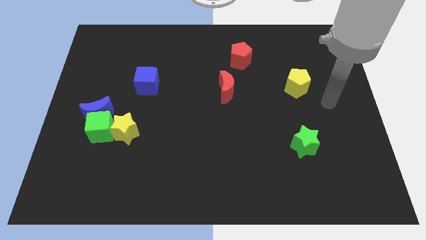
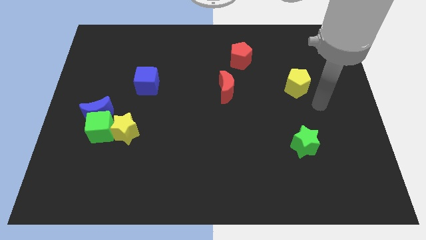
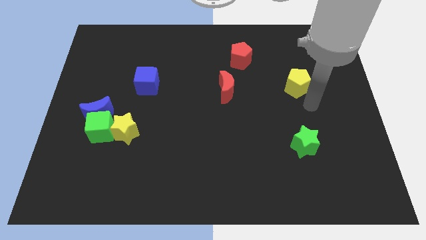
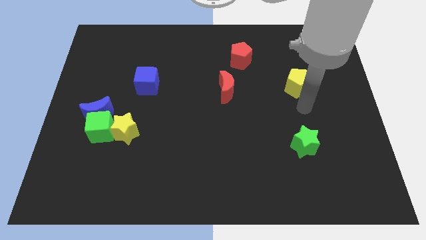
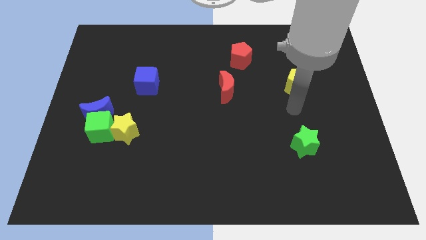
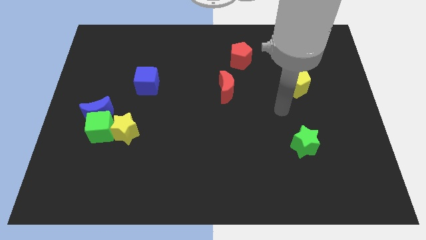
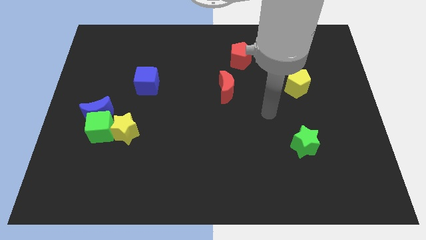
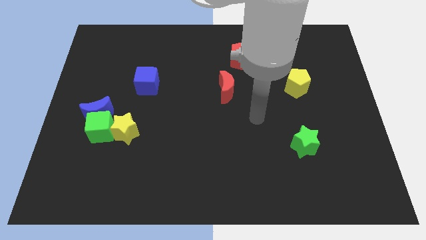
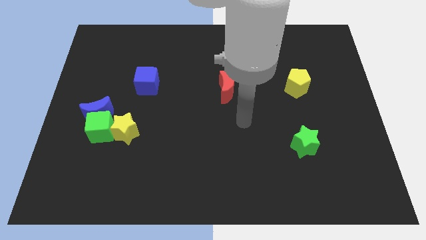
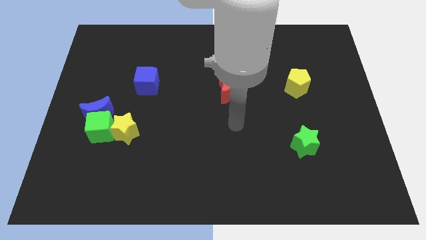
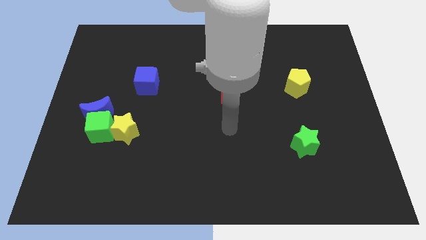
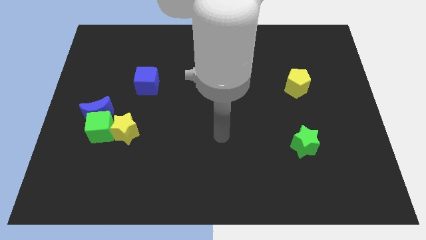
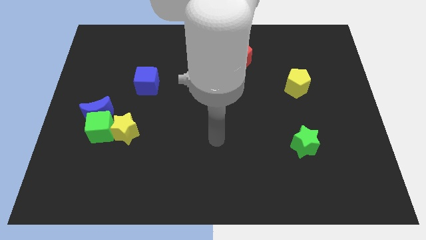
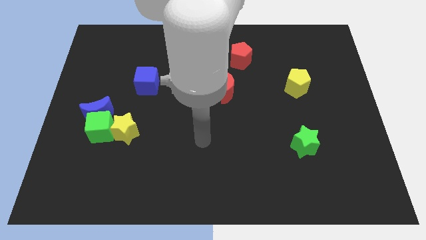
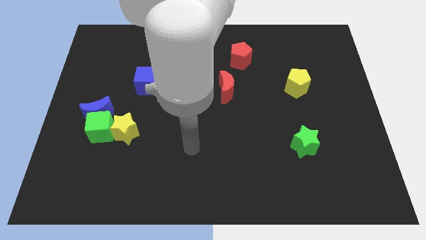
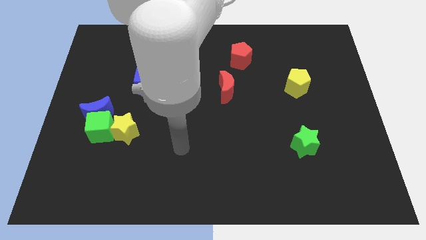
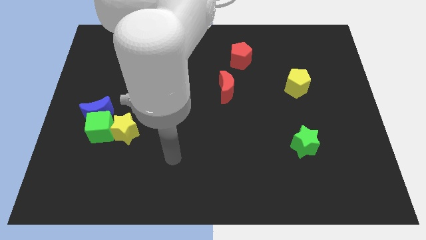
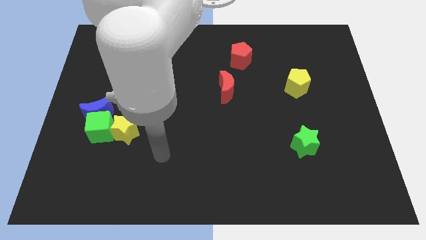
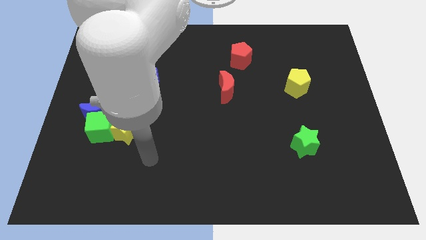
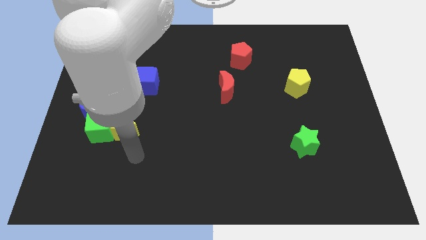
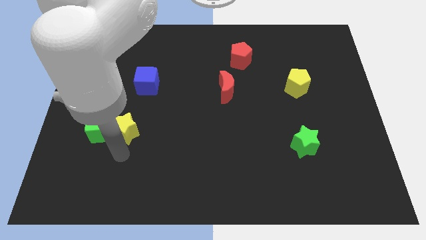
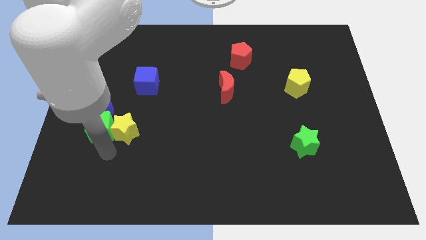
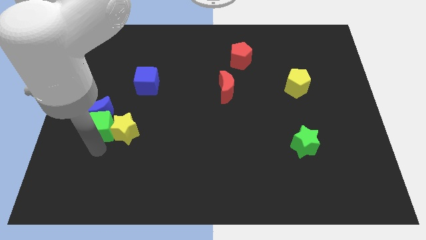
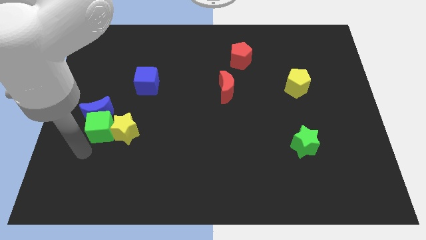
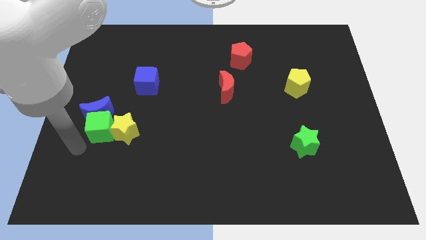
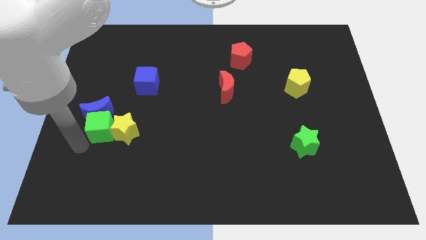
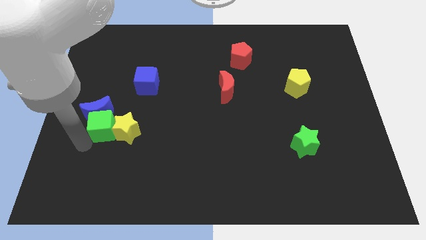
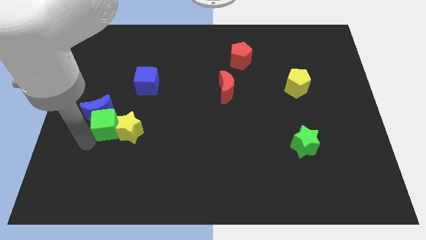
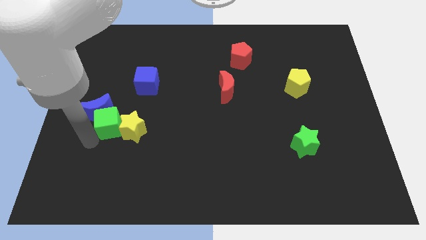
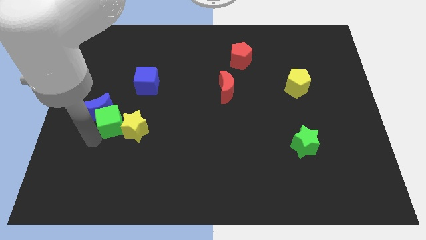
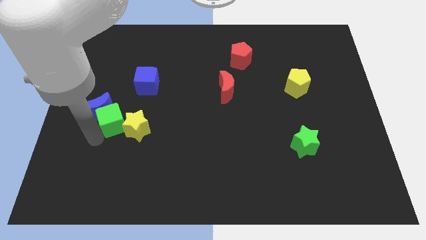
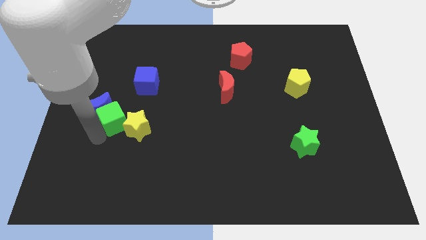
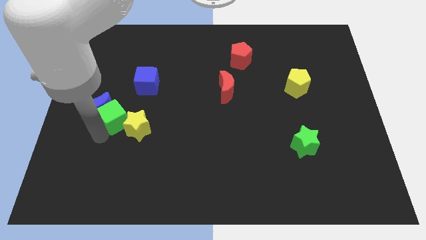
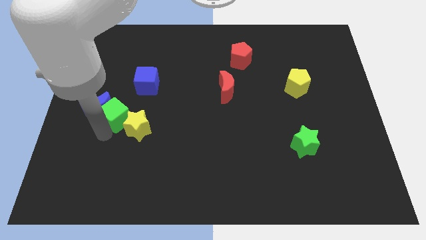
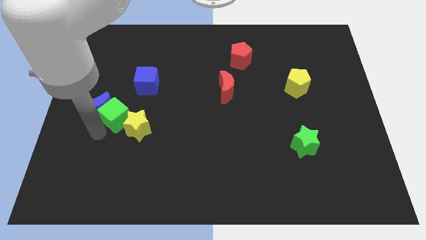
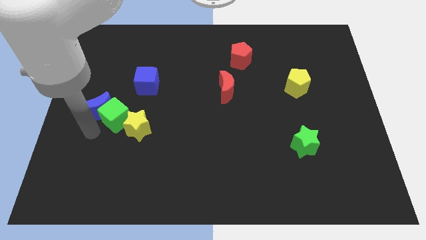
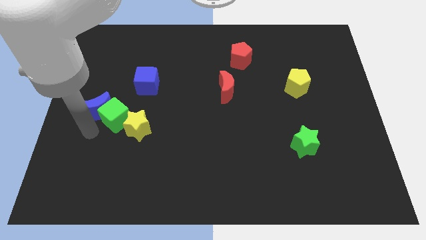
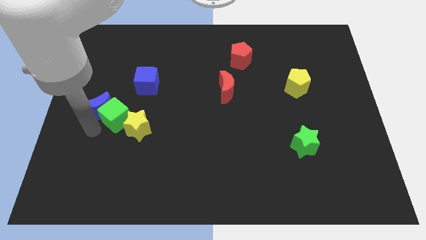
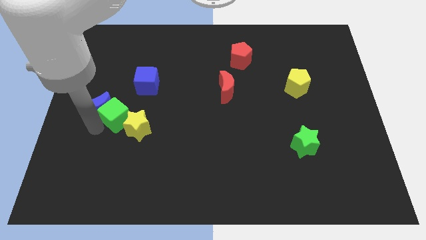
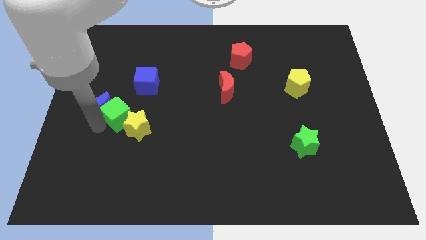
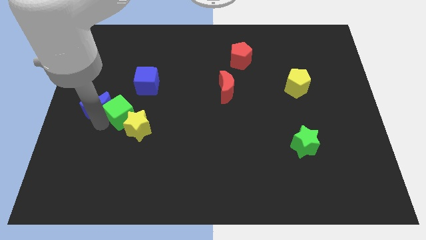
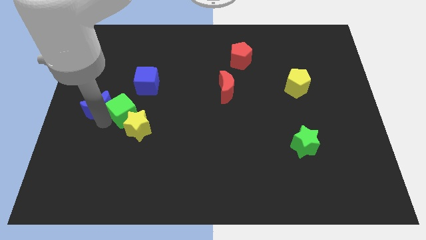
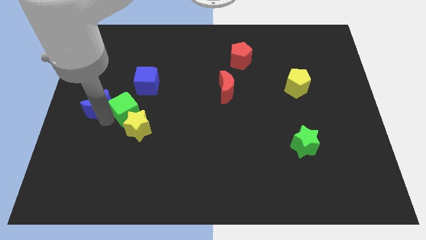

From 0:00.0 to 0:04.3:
push the green cube a bit up and to the right

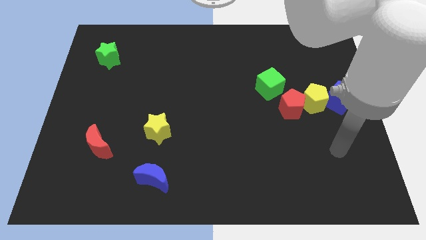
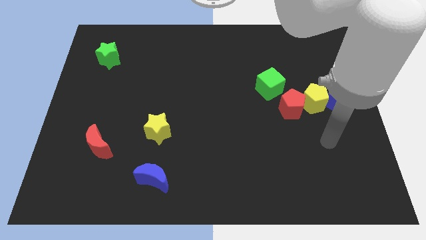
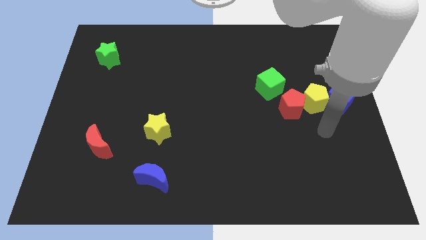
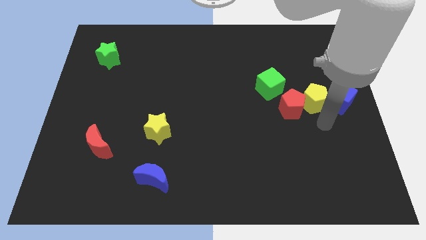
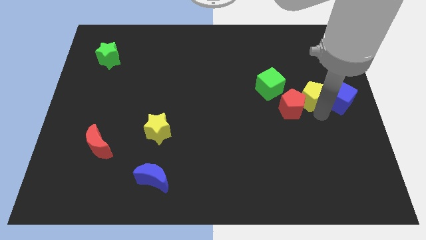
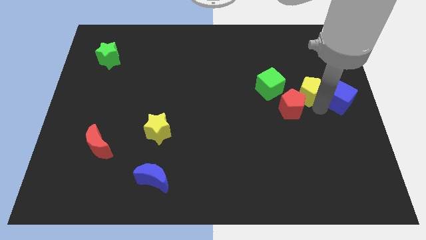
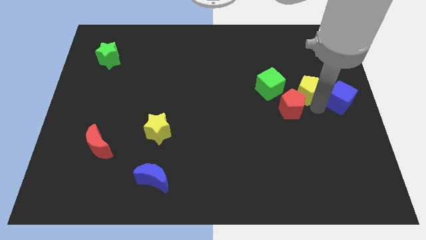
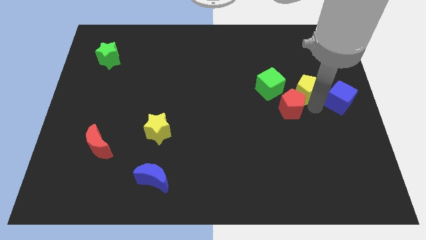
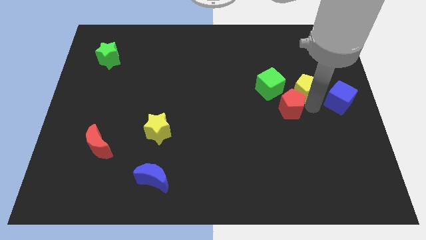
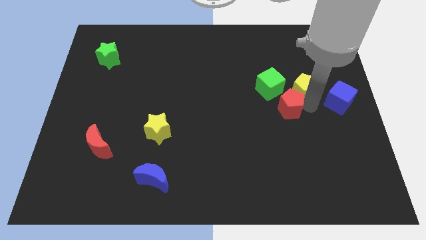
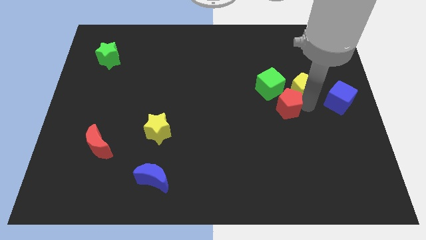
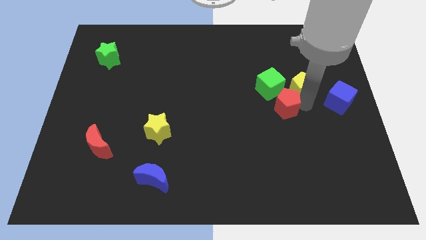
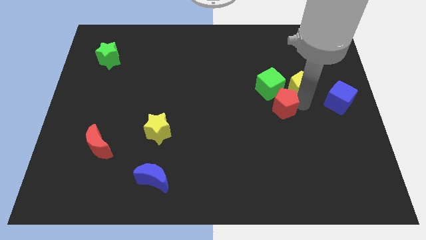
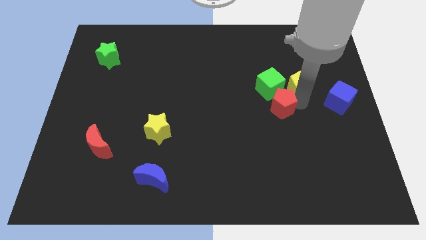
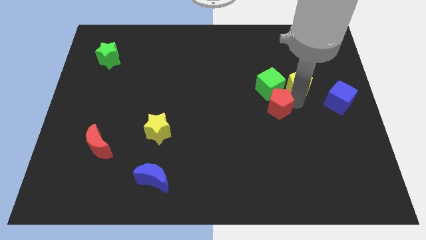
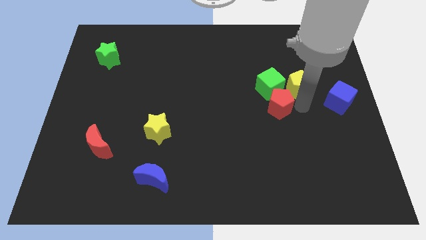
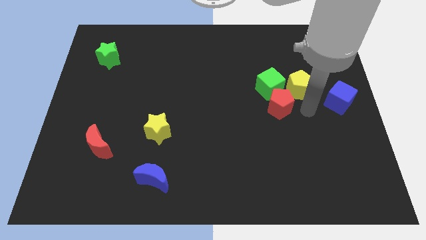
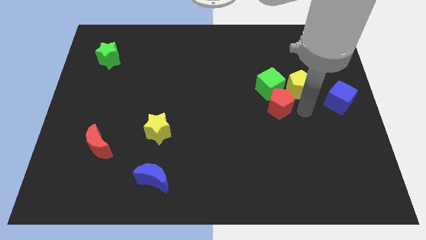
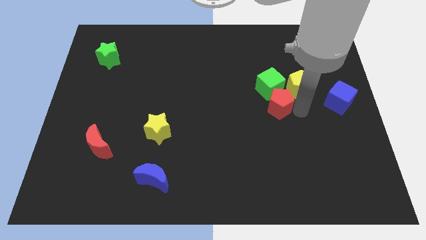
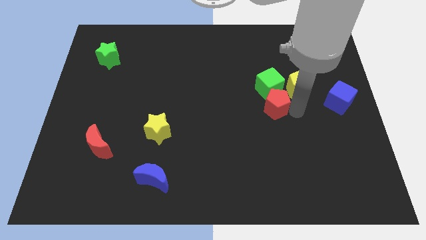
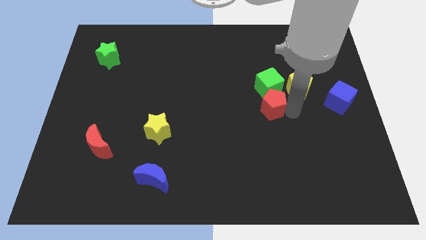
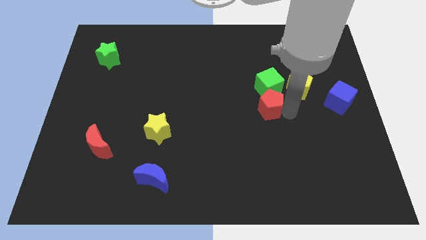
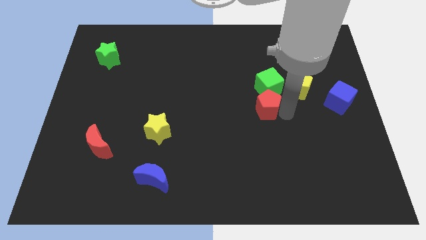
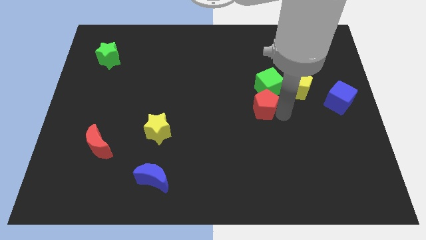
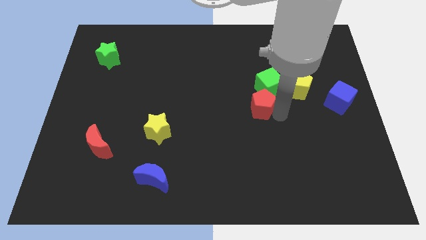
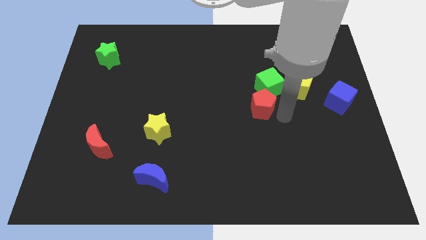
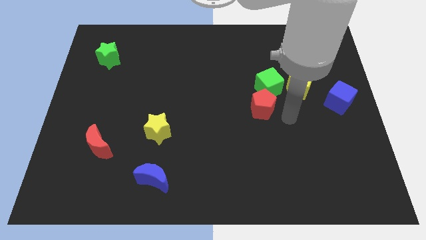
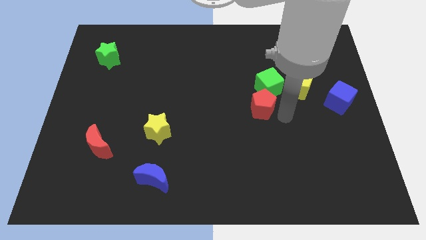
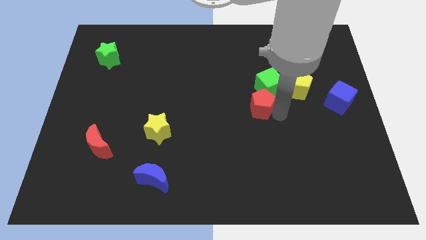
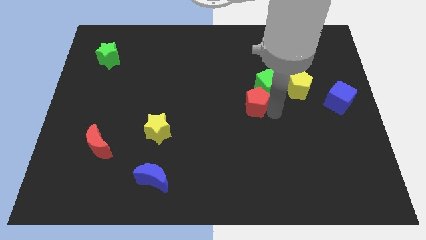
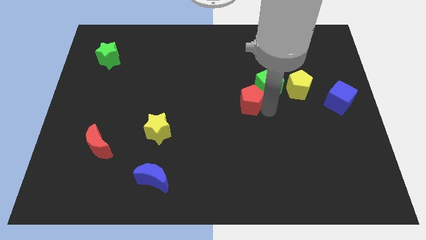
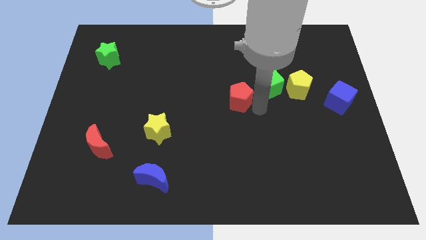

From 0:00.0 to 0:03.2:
slightly move the red pentagon up and left

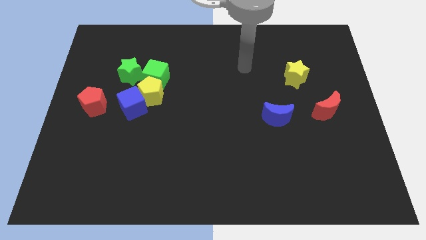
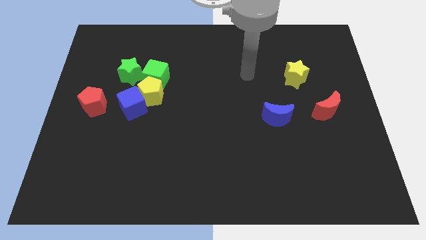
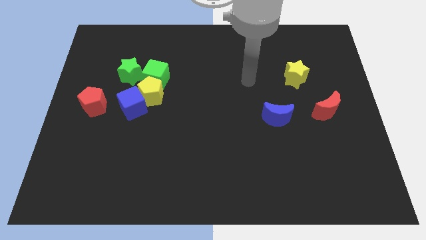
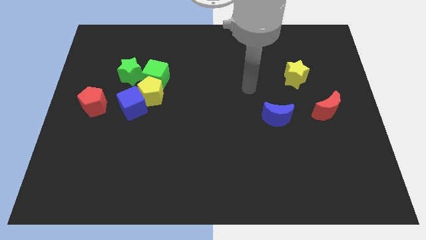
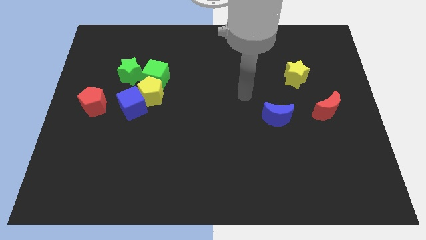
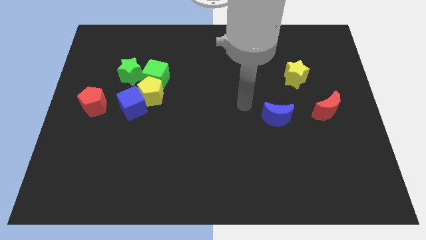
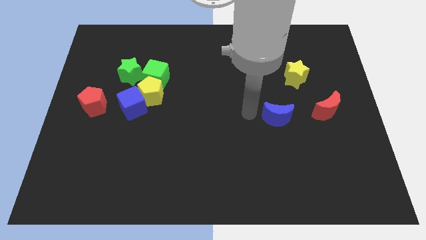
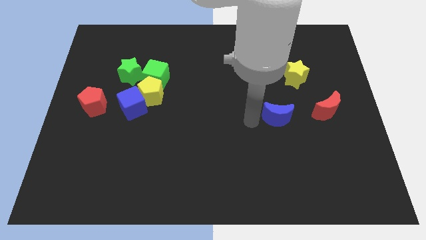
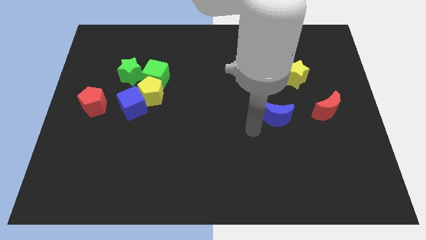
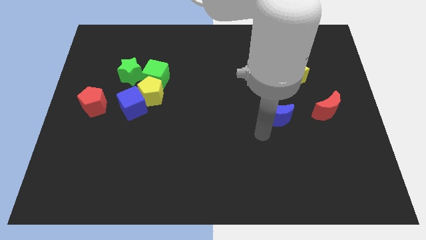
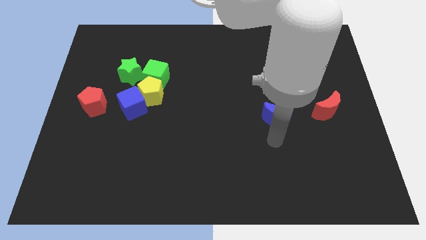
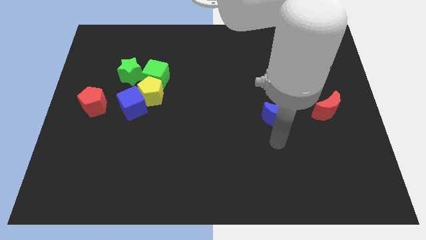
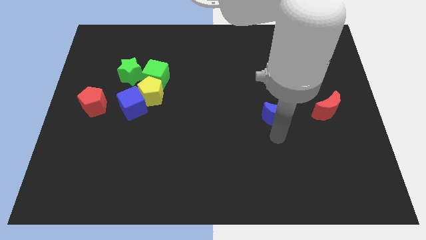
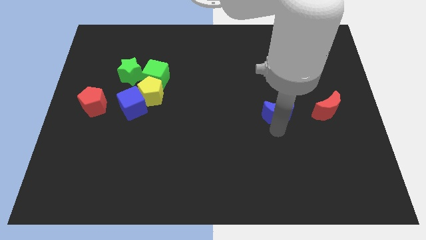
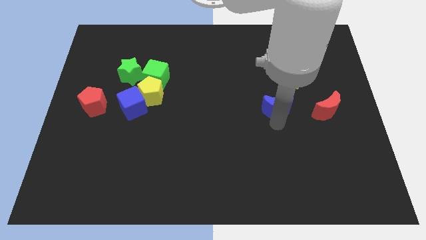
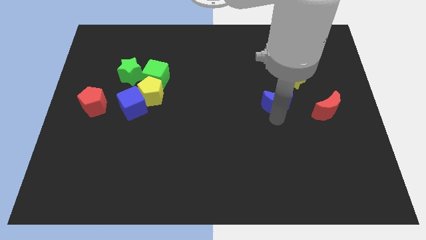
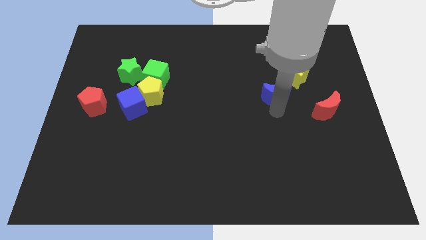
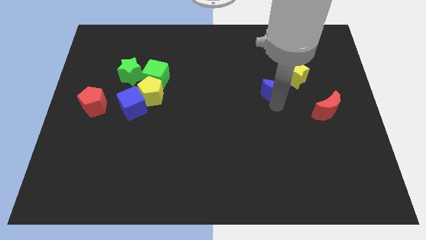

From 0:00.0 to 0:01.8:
push the blue moon upwards a little
